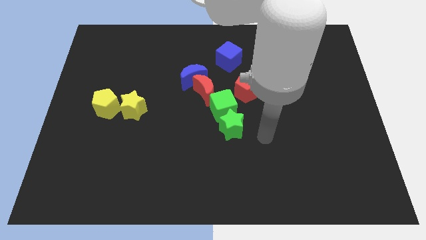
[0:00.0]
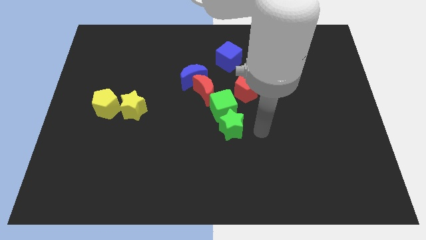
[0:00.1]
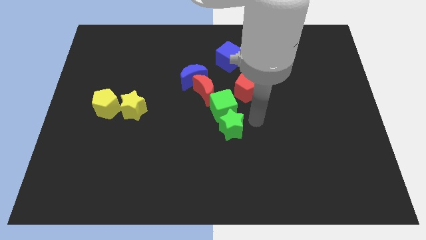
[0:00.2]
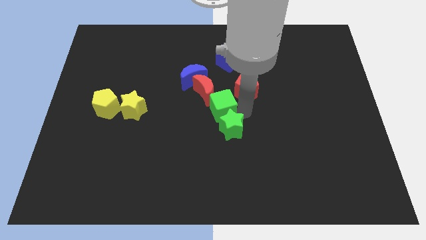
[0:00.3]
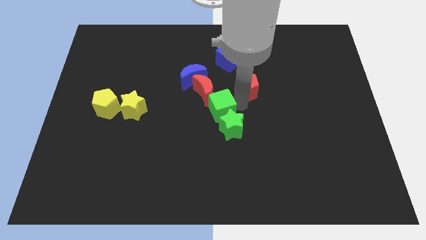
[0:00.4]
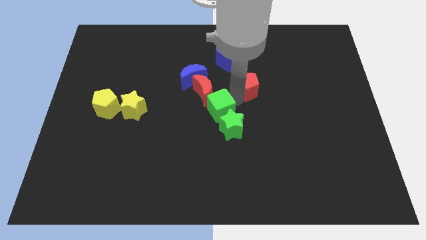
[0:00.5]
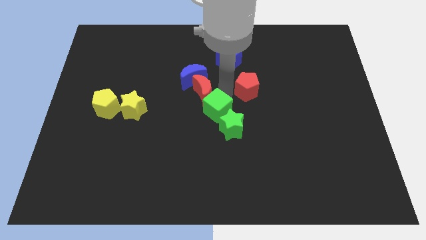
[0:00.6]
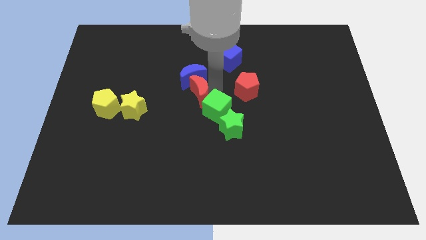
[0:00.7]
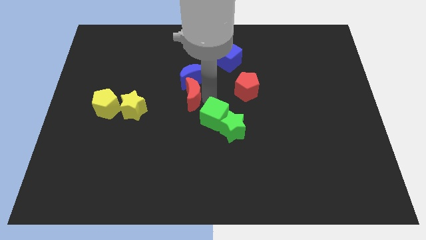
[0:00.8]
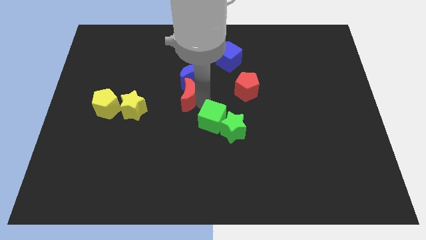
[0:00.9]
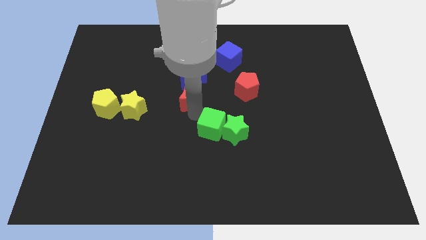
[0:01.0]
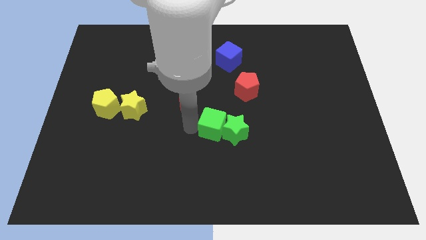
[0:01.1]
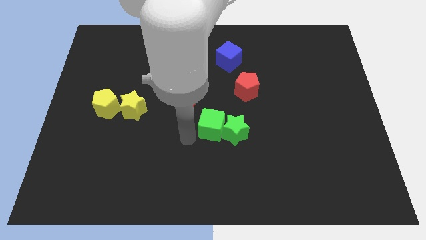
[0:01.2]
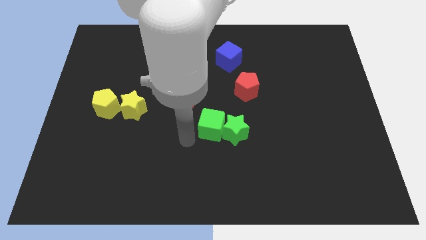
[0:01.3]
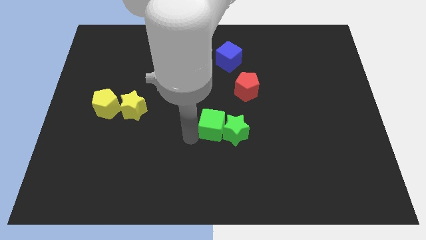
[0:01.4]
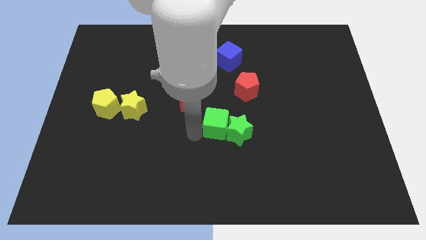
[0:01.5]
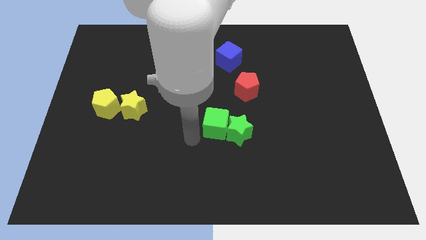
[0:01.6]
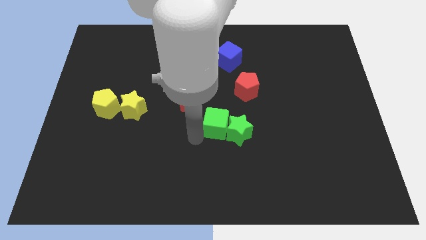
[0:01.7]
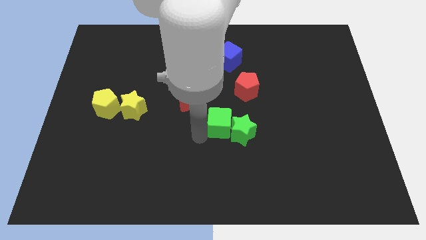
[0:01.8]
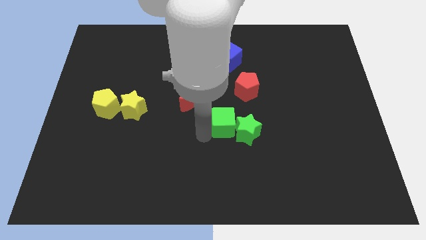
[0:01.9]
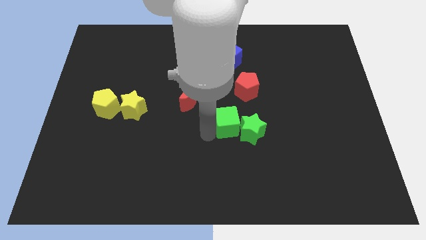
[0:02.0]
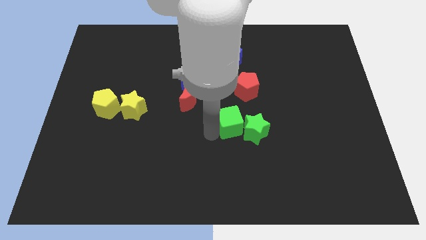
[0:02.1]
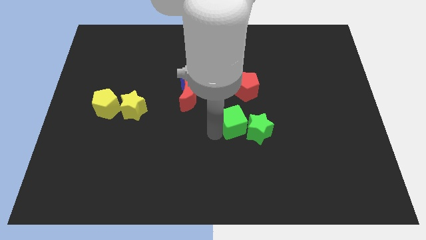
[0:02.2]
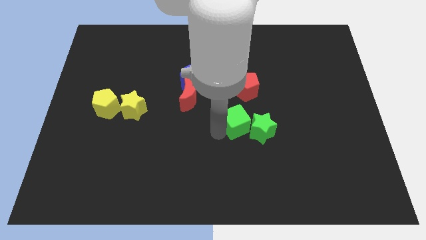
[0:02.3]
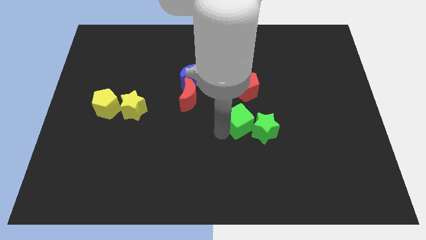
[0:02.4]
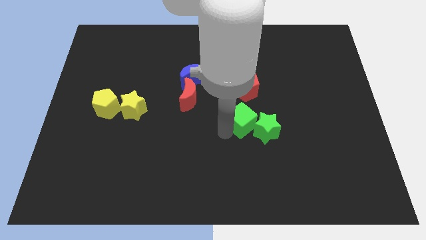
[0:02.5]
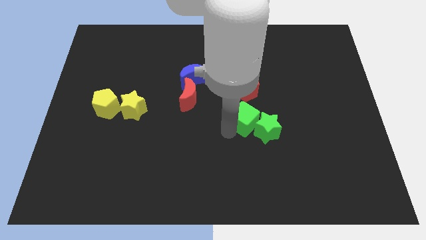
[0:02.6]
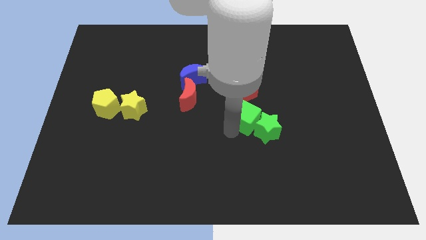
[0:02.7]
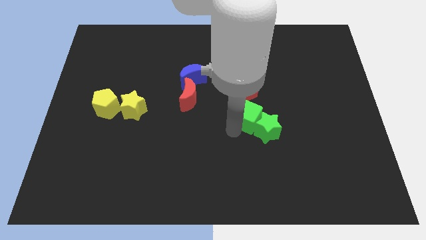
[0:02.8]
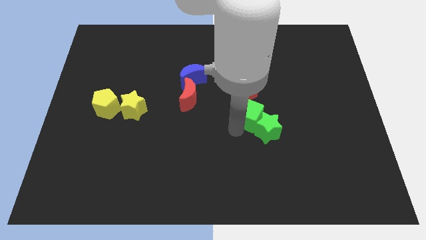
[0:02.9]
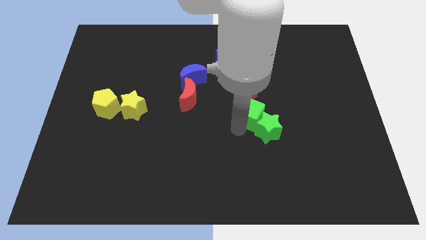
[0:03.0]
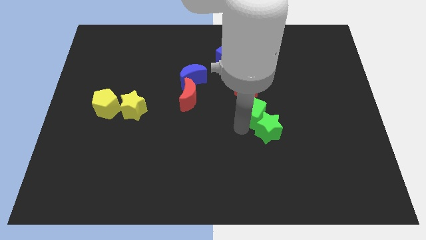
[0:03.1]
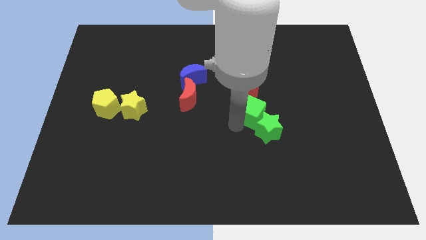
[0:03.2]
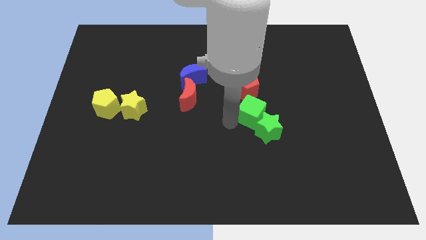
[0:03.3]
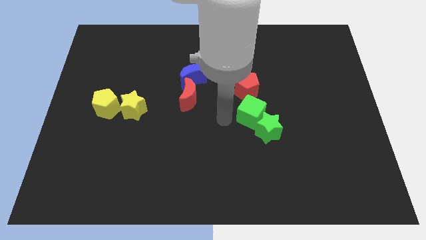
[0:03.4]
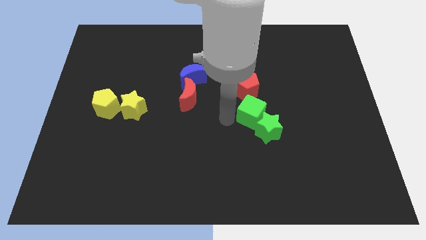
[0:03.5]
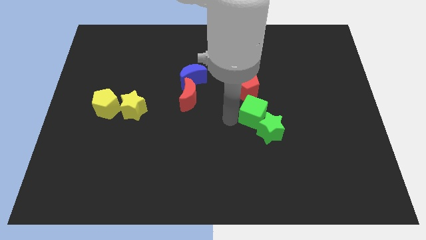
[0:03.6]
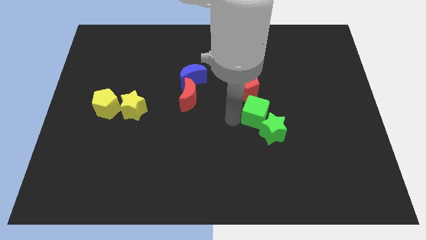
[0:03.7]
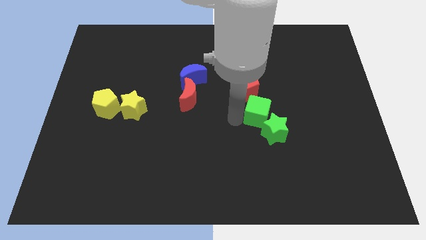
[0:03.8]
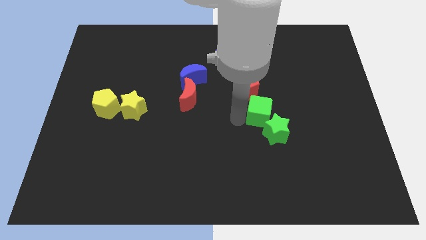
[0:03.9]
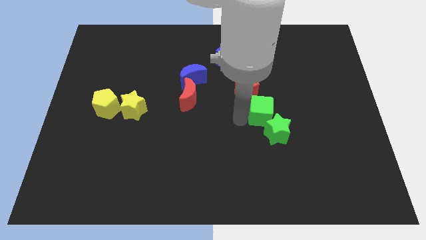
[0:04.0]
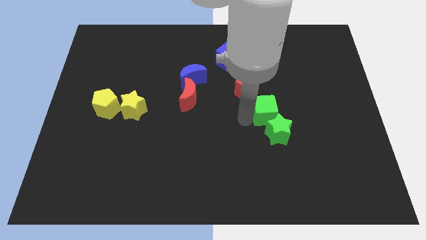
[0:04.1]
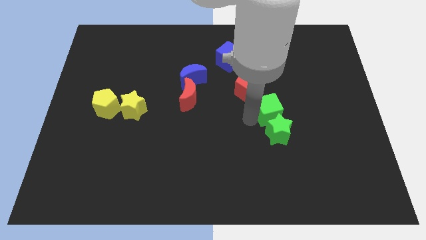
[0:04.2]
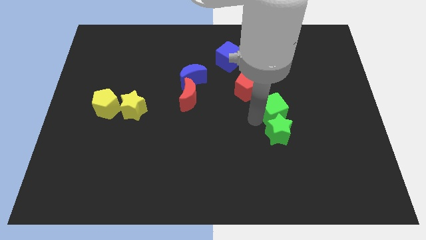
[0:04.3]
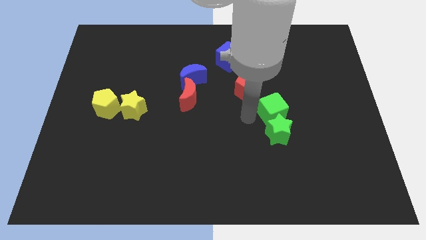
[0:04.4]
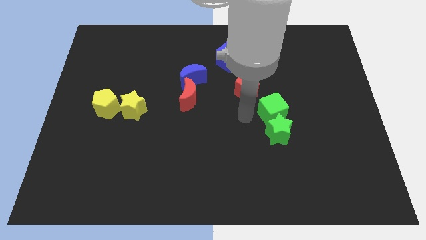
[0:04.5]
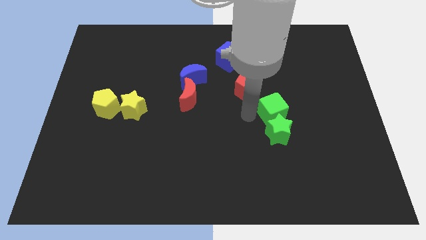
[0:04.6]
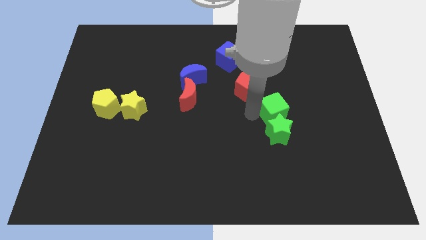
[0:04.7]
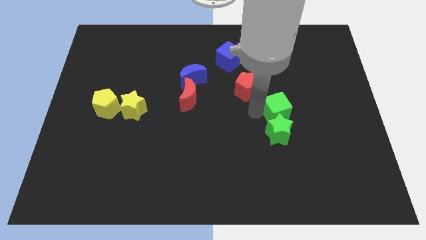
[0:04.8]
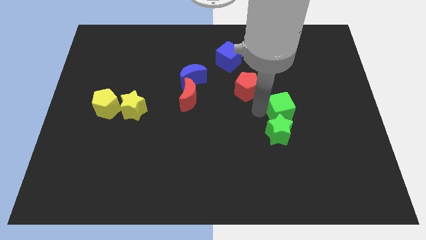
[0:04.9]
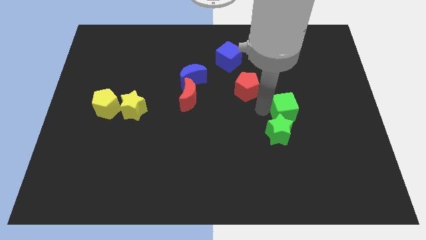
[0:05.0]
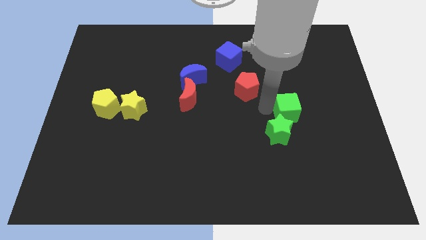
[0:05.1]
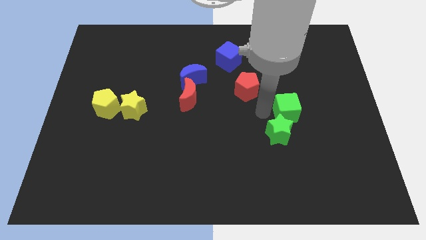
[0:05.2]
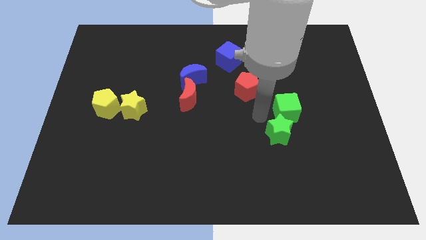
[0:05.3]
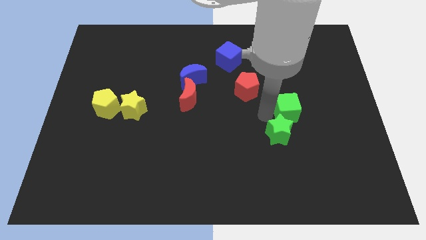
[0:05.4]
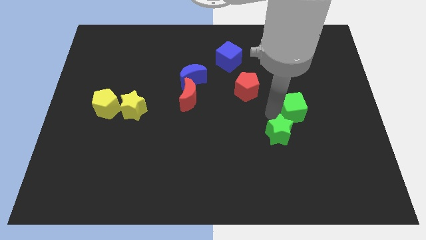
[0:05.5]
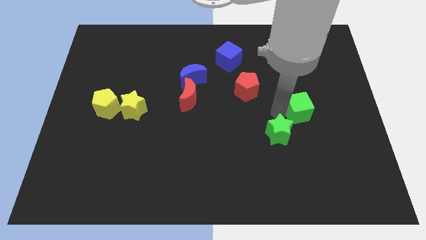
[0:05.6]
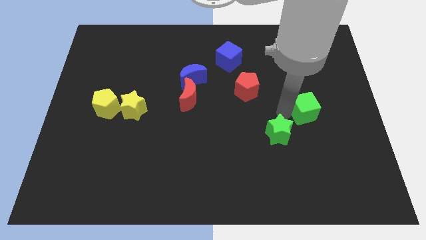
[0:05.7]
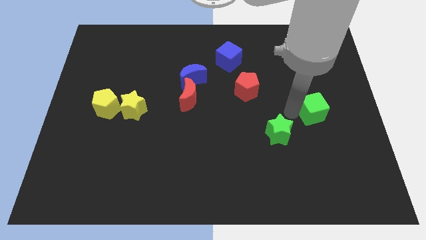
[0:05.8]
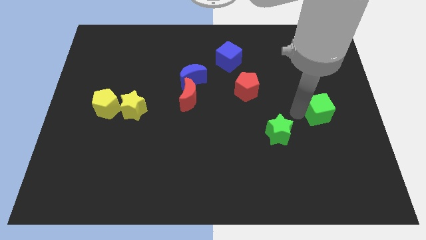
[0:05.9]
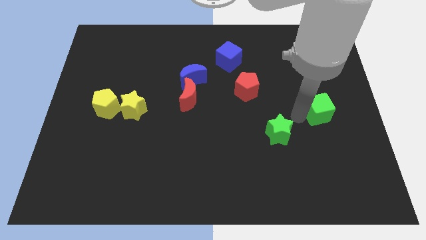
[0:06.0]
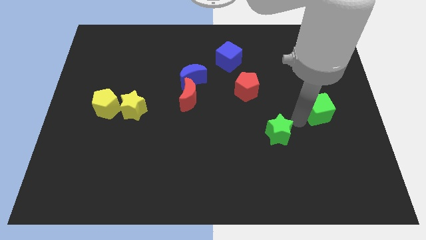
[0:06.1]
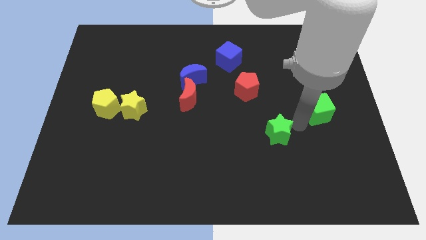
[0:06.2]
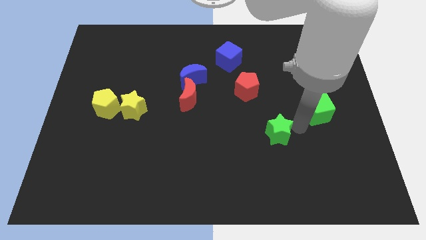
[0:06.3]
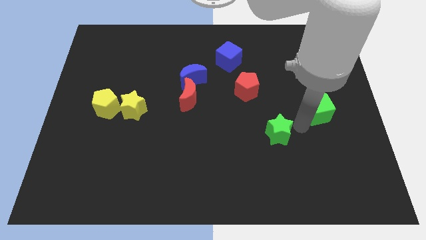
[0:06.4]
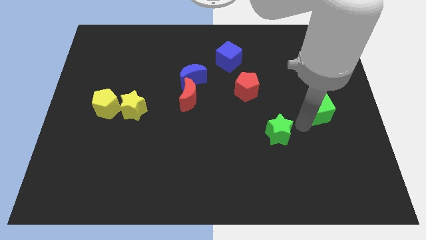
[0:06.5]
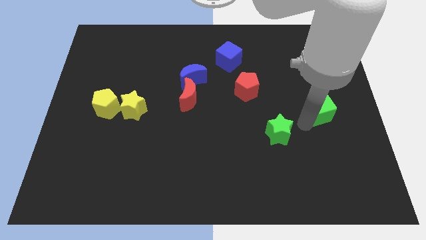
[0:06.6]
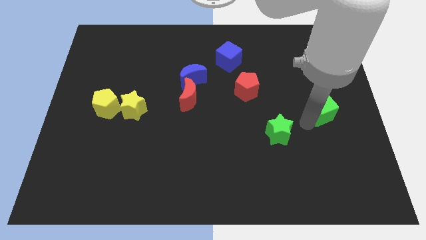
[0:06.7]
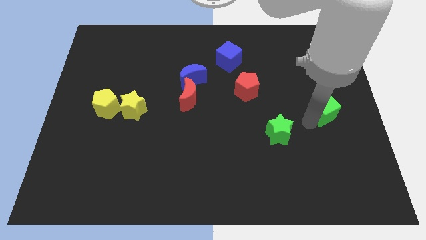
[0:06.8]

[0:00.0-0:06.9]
move the green cube to the center right
